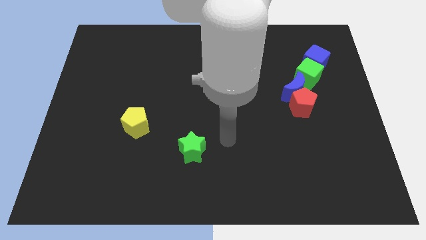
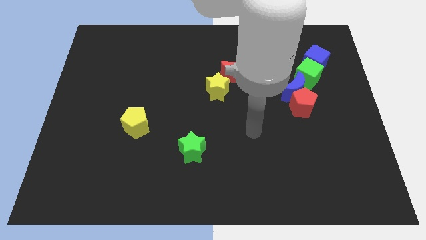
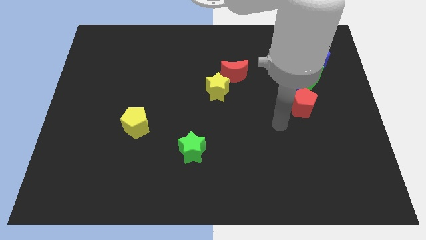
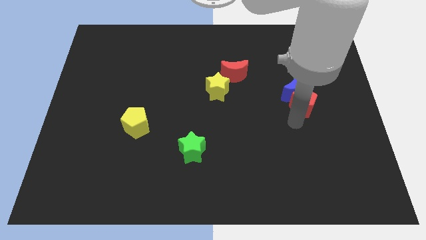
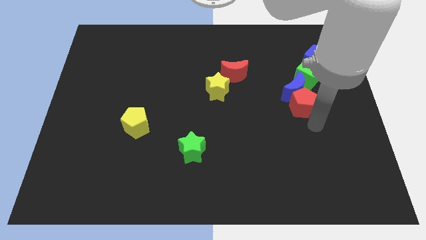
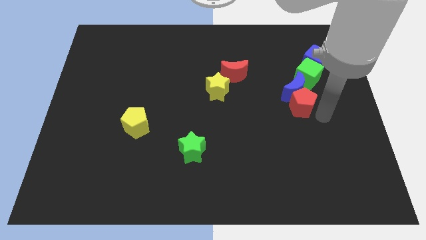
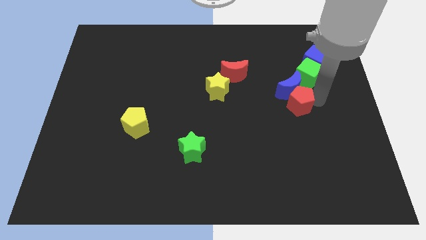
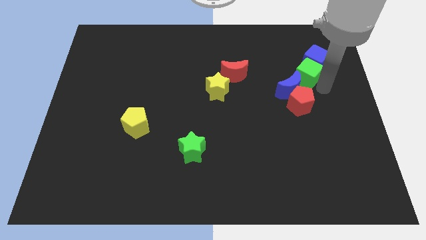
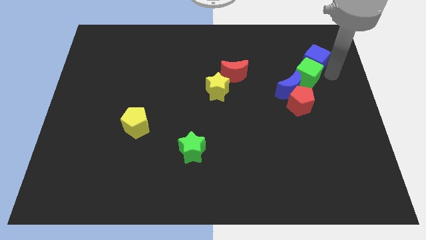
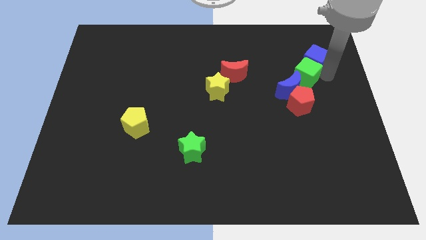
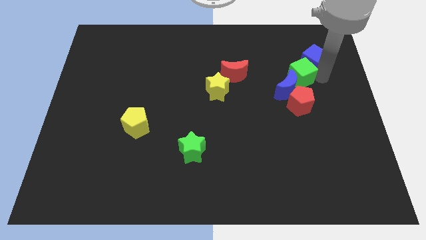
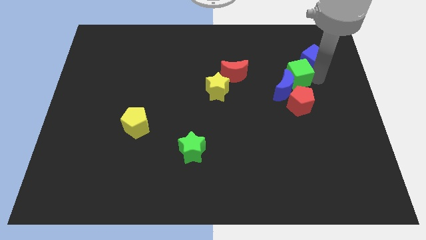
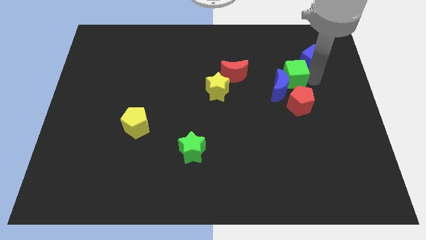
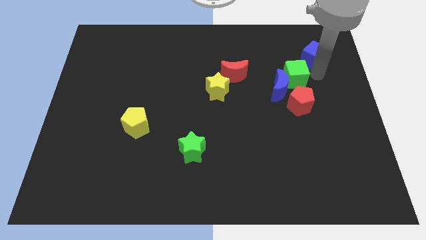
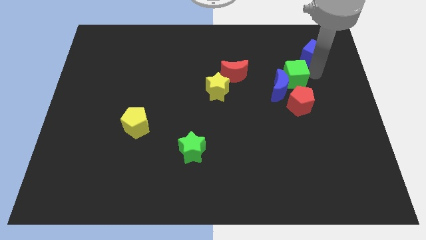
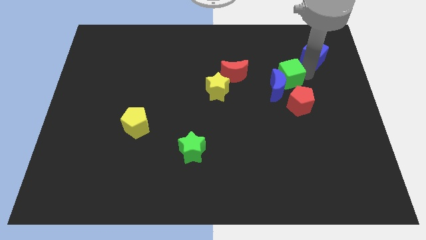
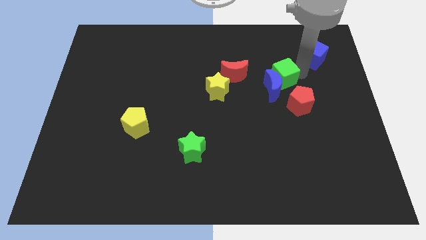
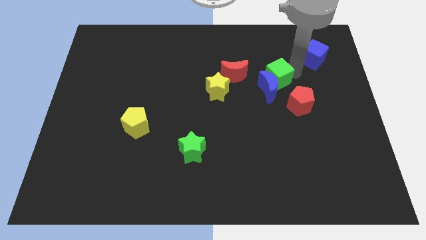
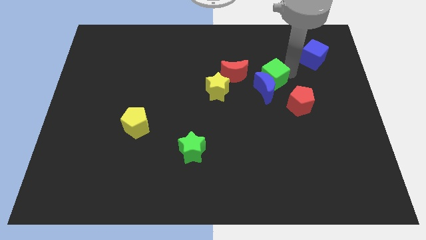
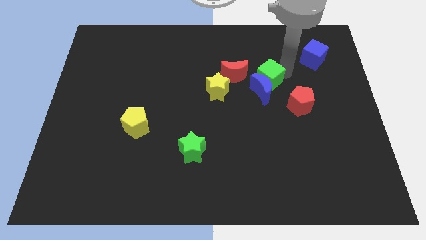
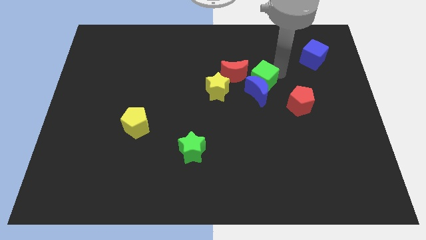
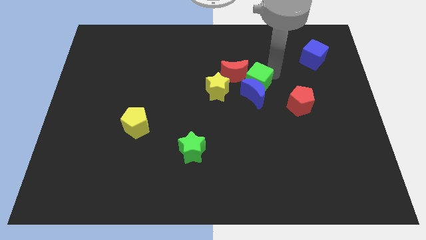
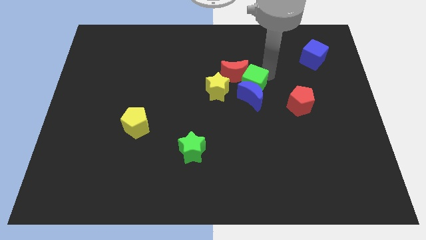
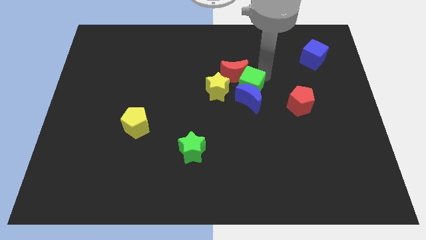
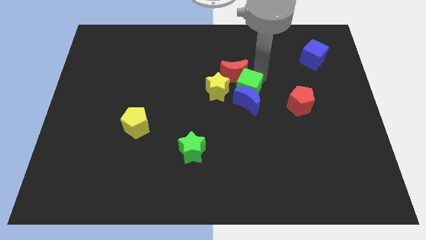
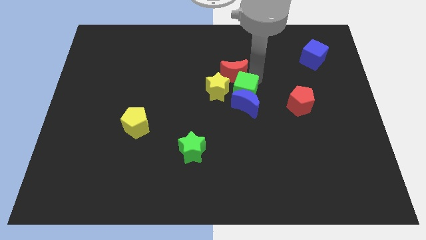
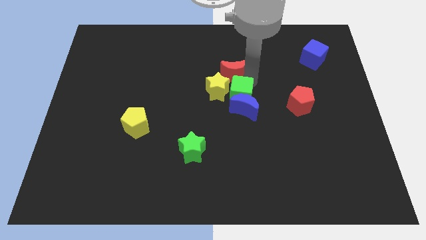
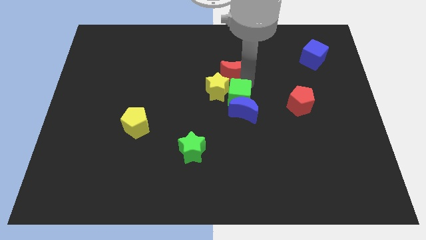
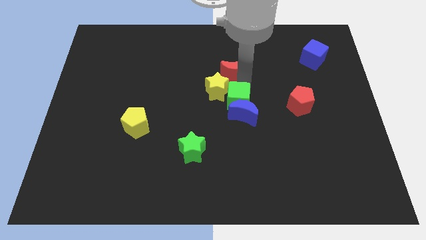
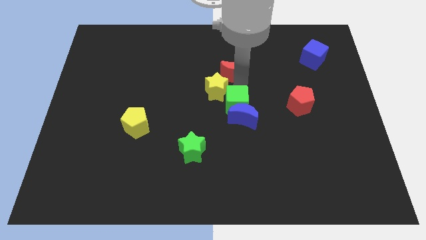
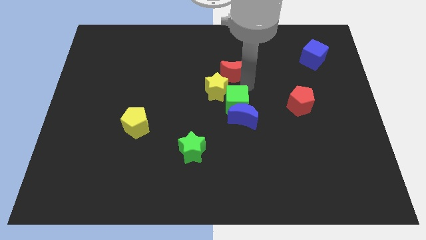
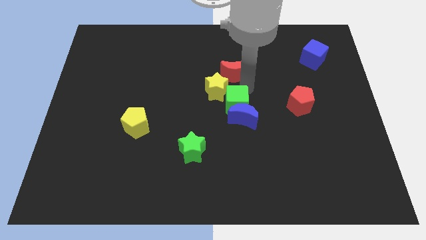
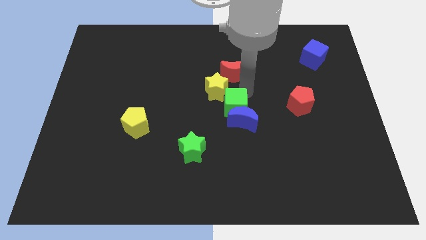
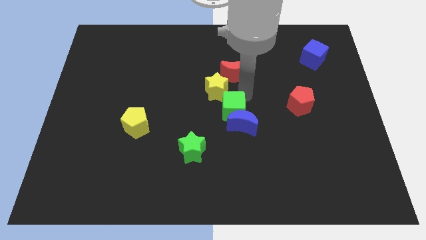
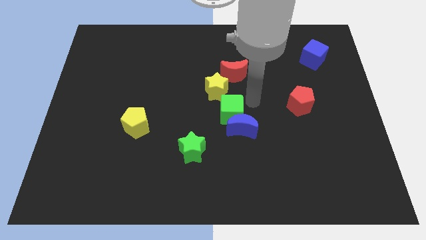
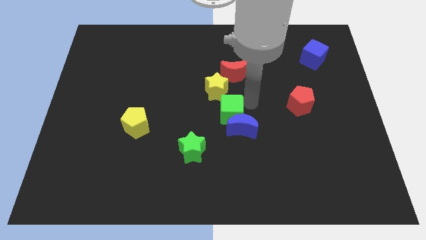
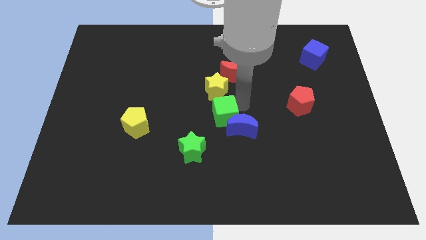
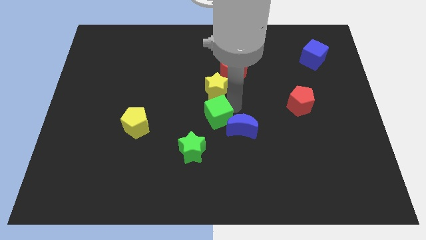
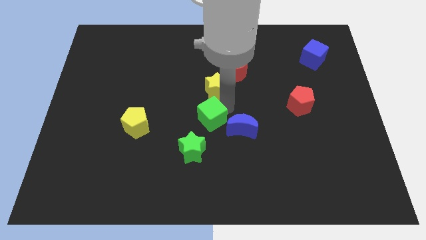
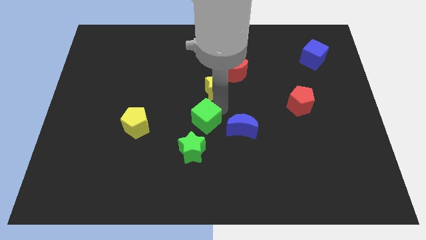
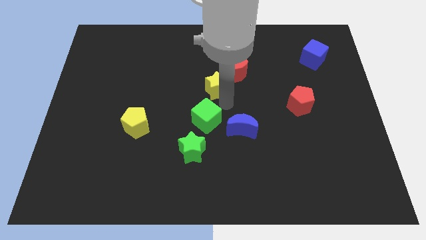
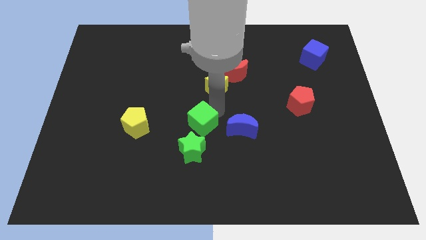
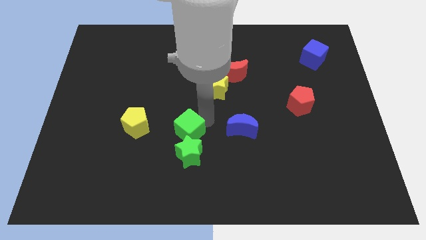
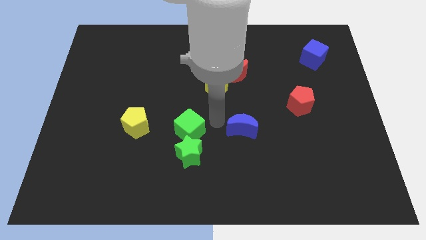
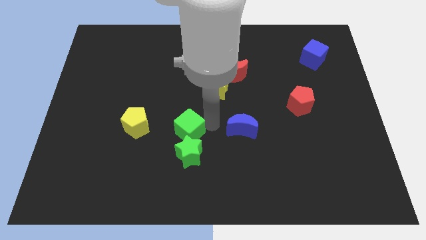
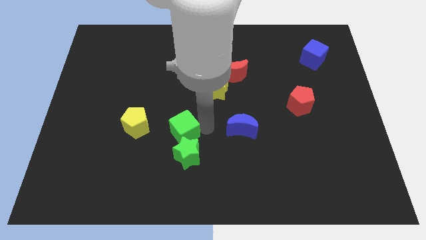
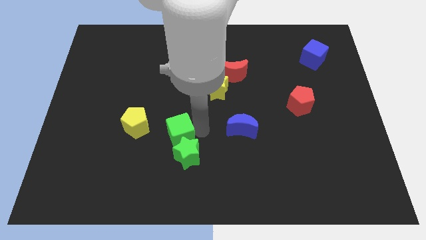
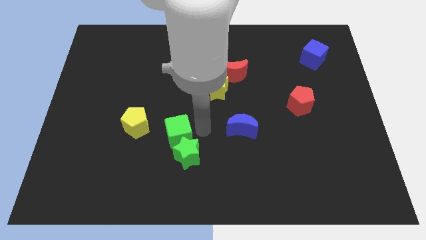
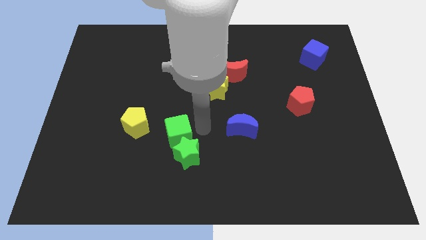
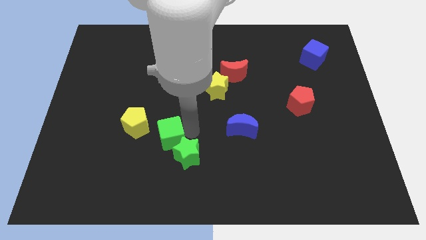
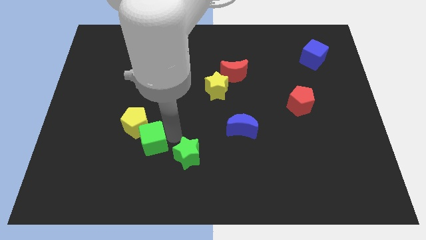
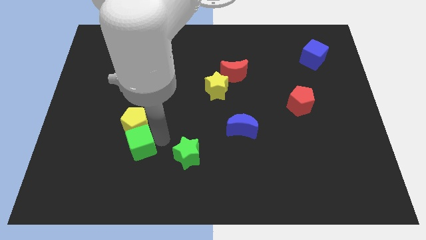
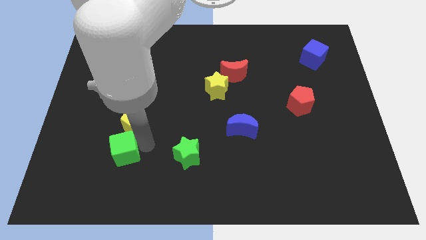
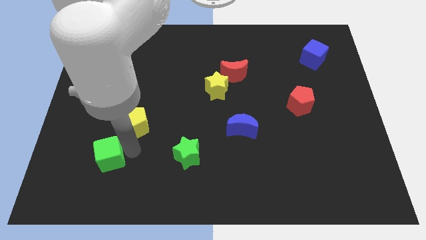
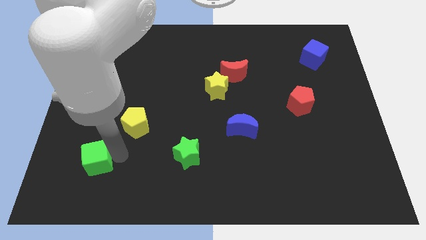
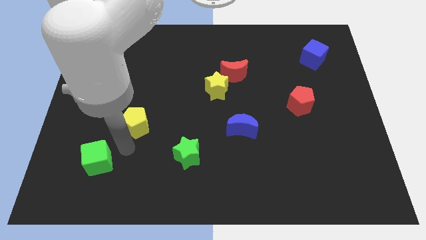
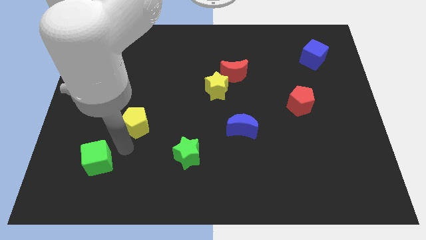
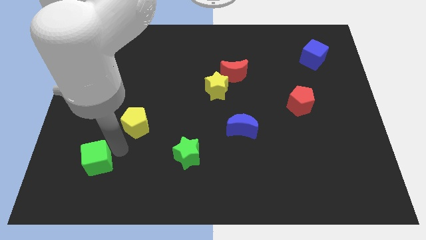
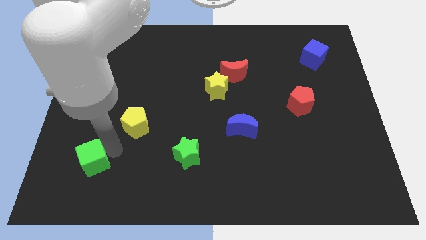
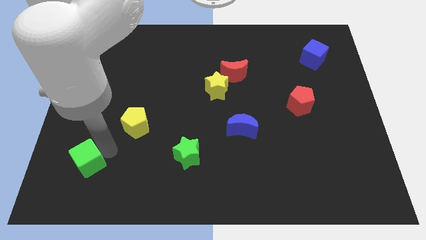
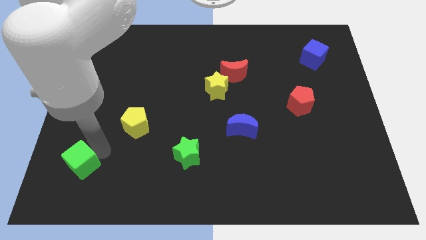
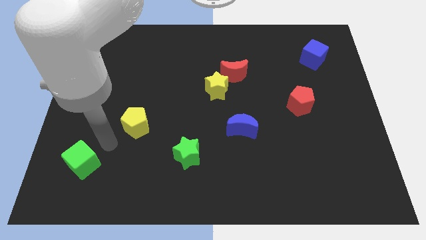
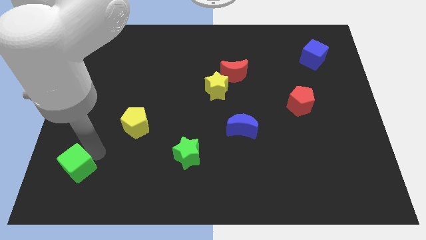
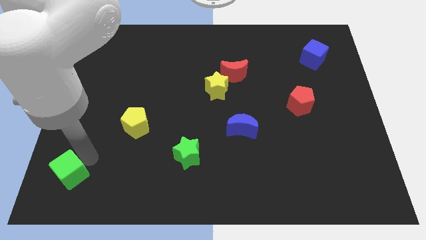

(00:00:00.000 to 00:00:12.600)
push the green cube to the bottom left
